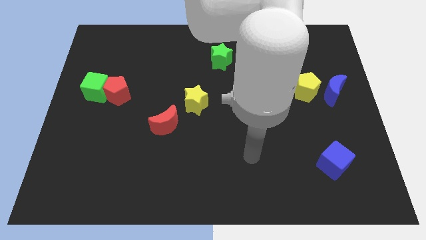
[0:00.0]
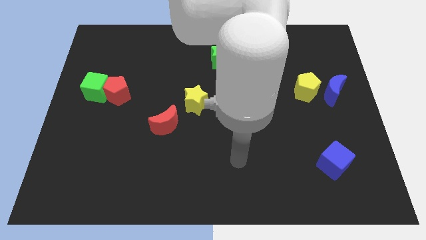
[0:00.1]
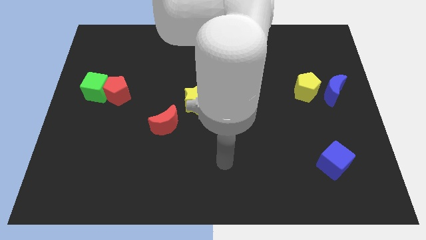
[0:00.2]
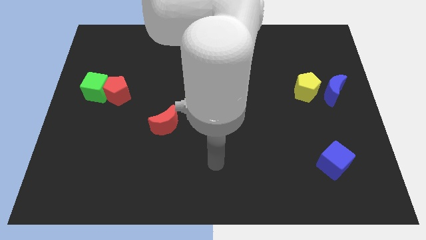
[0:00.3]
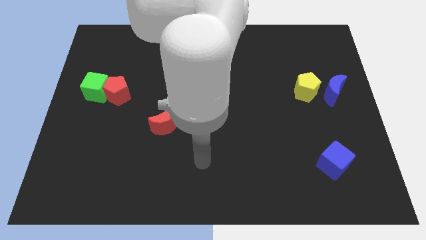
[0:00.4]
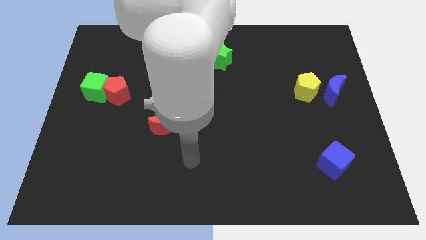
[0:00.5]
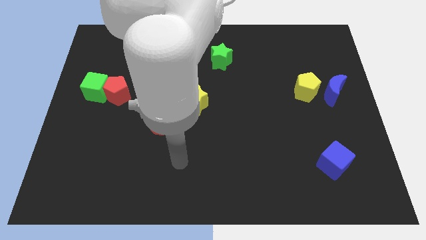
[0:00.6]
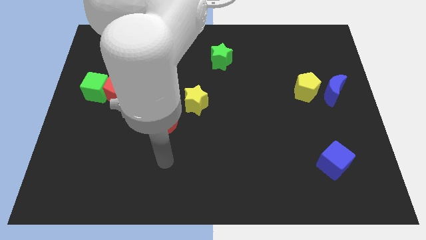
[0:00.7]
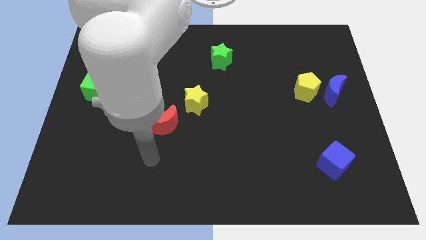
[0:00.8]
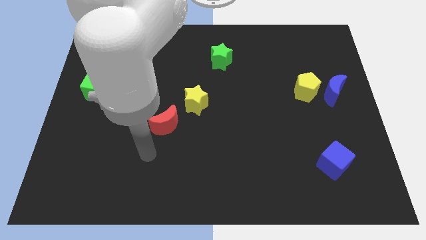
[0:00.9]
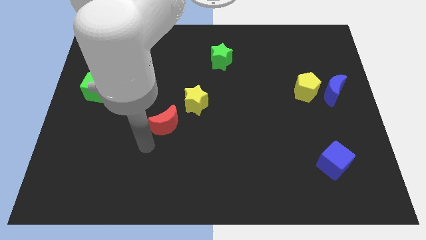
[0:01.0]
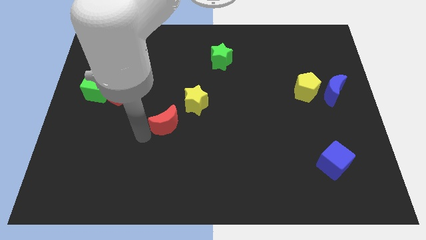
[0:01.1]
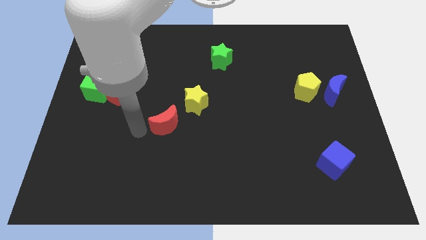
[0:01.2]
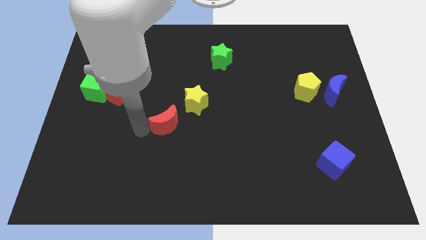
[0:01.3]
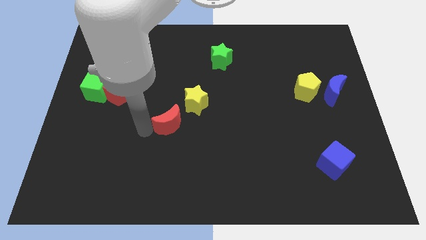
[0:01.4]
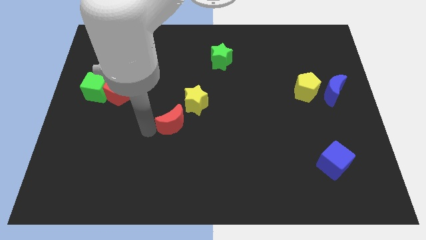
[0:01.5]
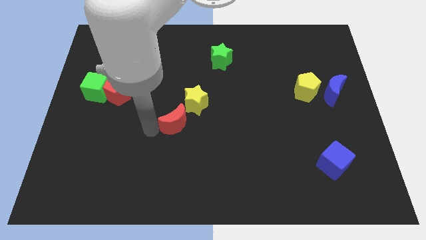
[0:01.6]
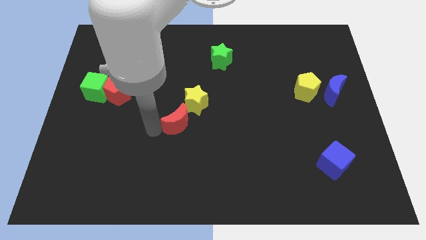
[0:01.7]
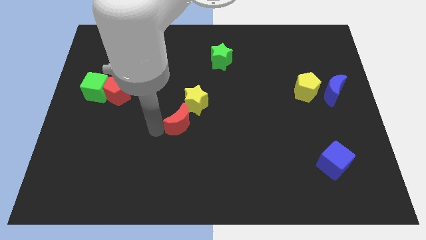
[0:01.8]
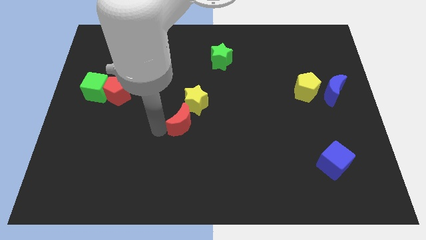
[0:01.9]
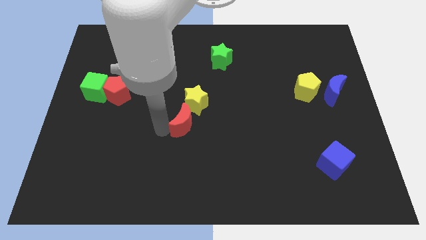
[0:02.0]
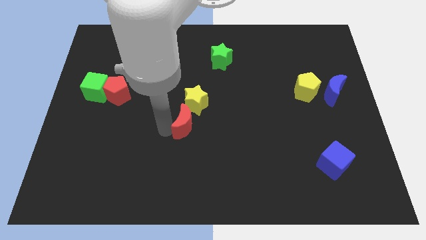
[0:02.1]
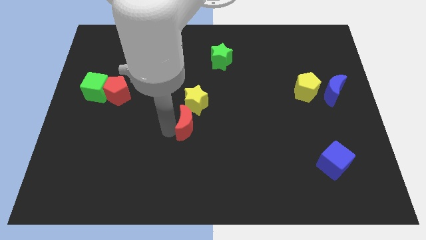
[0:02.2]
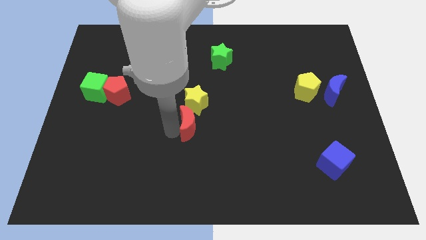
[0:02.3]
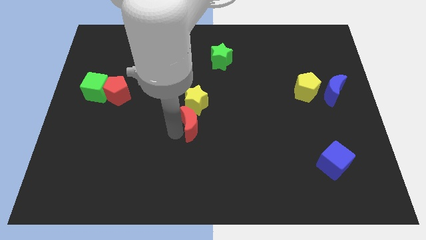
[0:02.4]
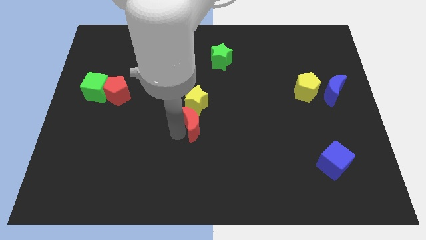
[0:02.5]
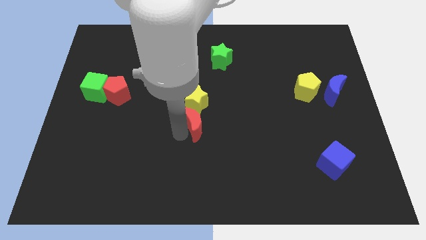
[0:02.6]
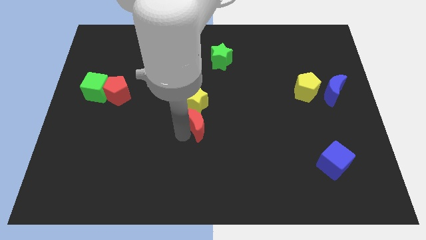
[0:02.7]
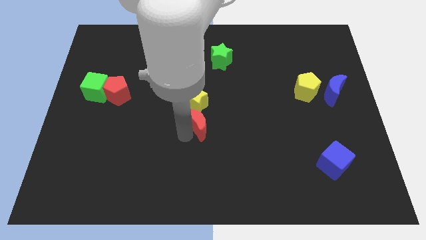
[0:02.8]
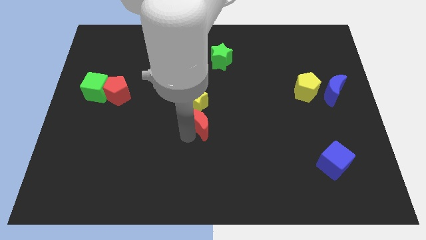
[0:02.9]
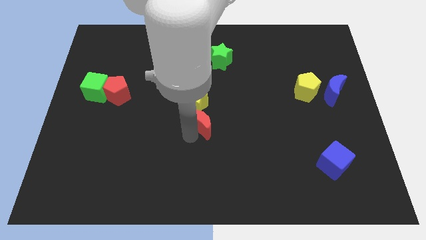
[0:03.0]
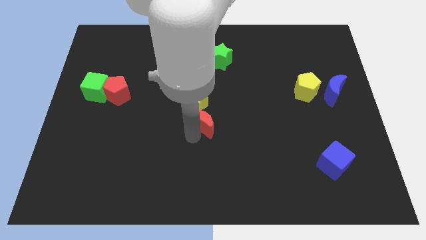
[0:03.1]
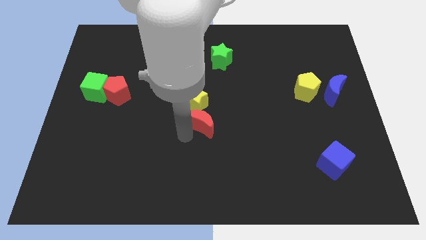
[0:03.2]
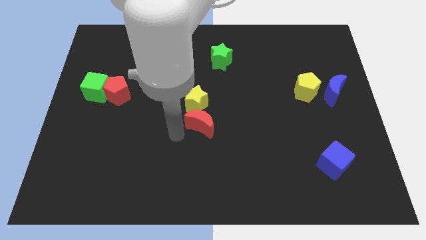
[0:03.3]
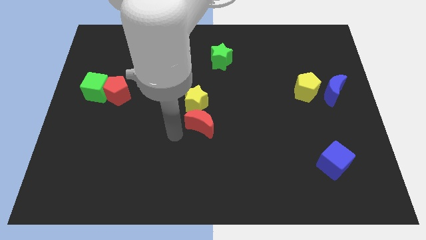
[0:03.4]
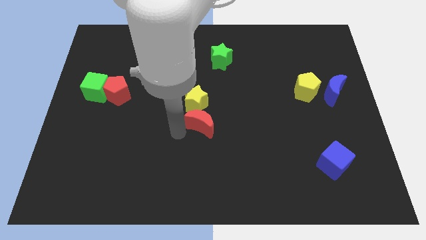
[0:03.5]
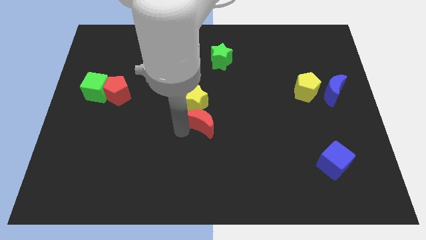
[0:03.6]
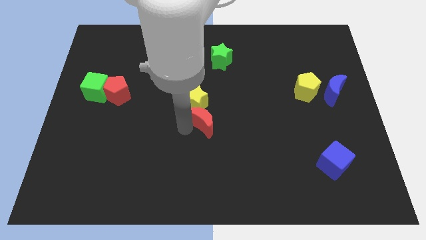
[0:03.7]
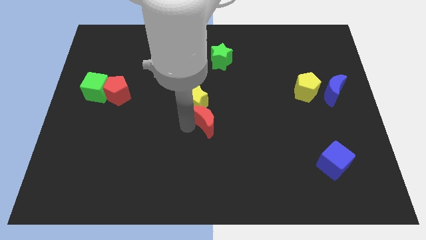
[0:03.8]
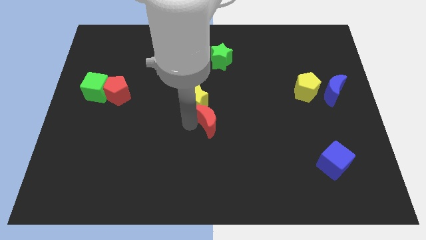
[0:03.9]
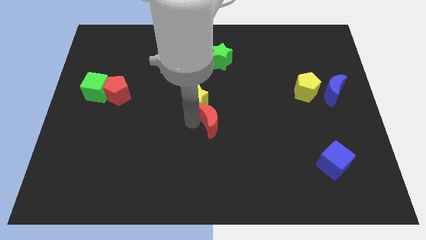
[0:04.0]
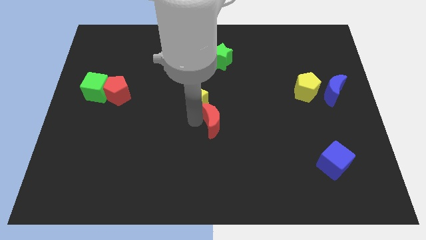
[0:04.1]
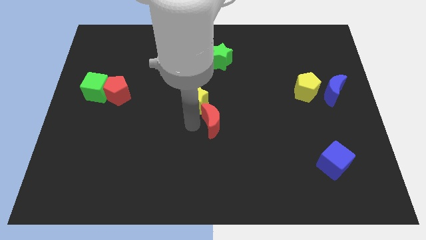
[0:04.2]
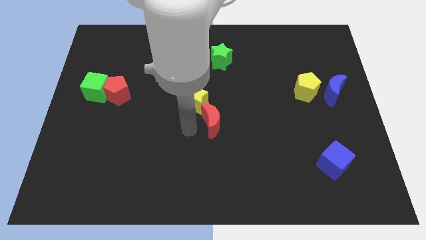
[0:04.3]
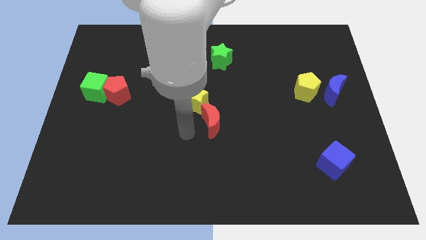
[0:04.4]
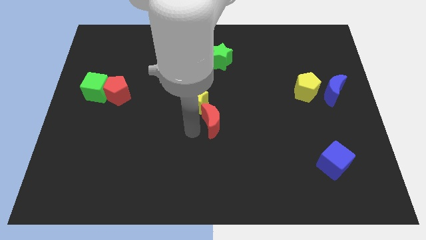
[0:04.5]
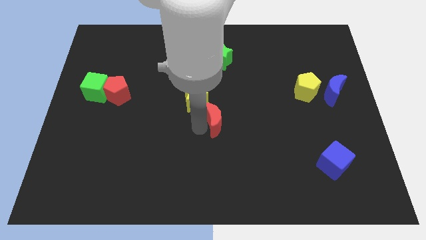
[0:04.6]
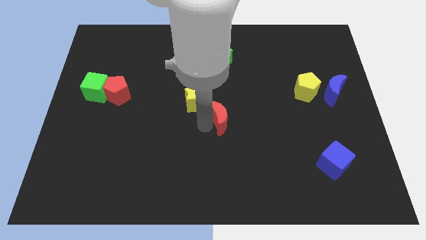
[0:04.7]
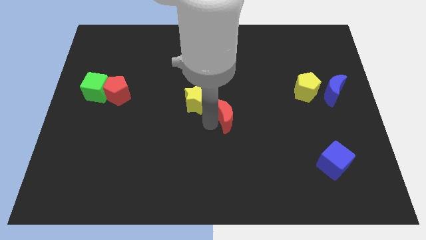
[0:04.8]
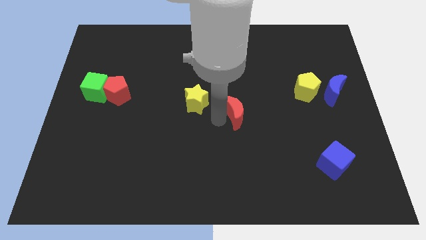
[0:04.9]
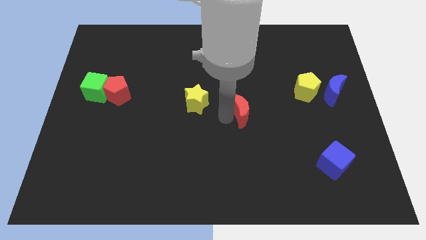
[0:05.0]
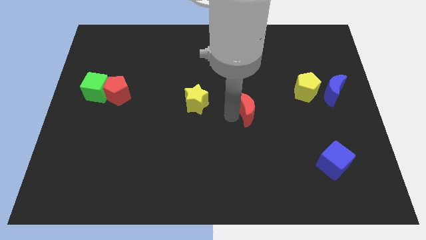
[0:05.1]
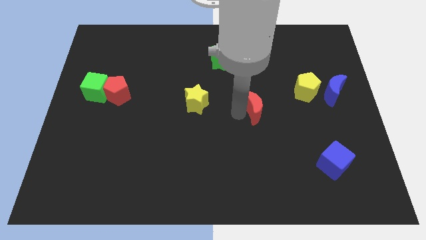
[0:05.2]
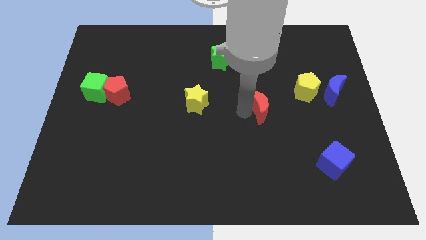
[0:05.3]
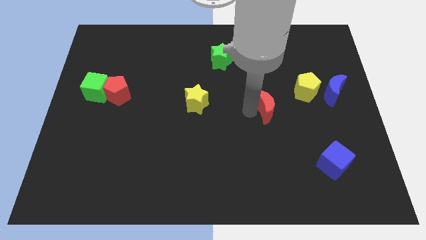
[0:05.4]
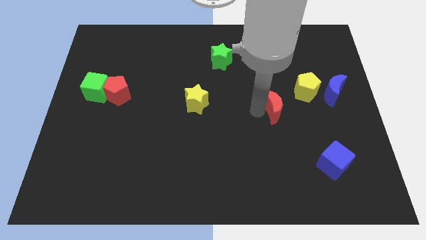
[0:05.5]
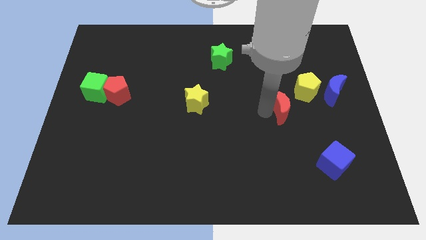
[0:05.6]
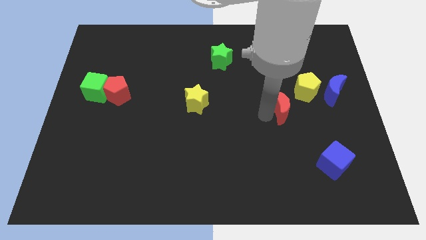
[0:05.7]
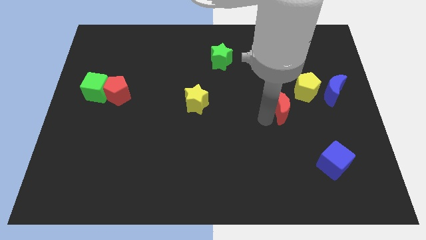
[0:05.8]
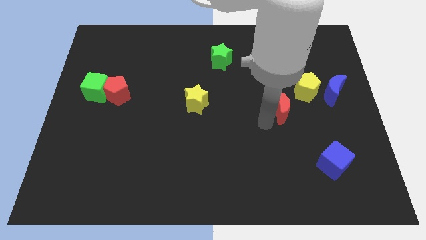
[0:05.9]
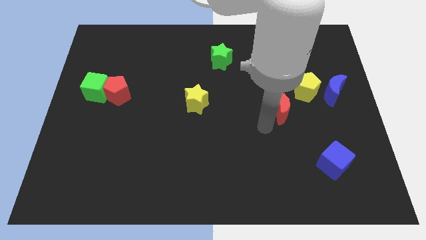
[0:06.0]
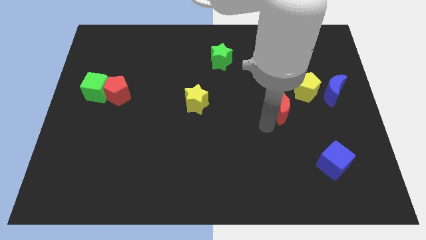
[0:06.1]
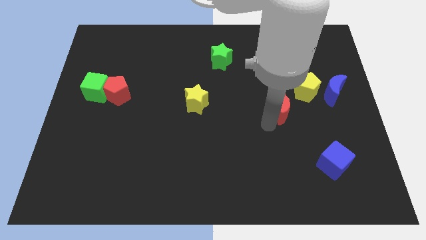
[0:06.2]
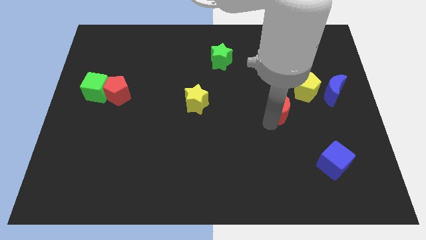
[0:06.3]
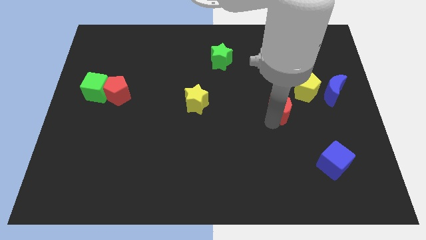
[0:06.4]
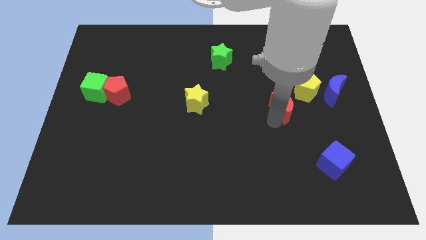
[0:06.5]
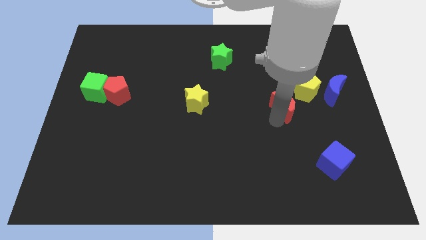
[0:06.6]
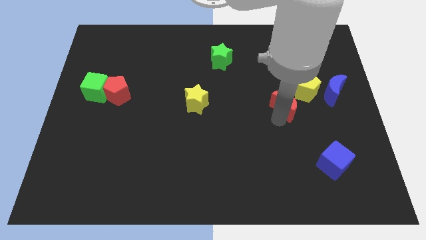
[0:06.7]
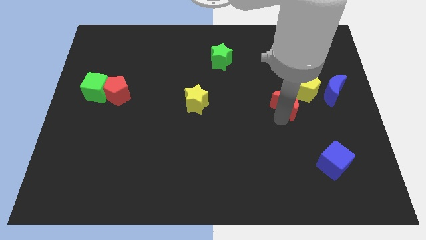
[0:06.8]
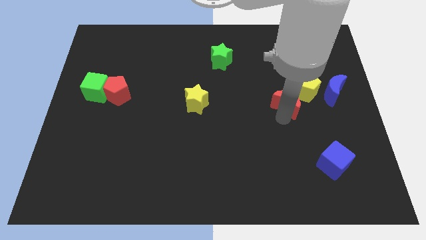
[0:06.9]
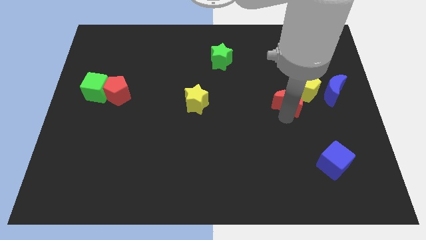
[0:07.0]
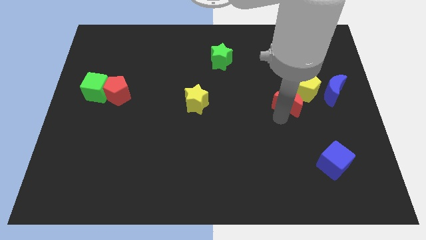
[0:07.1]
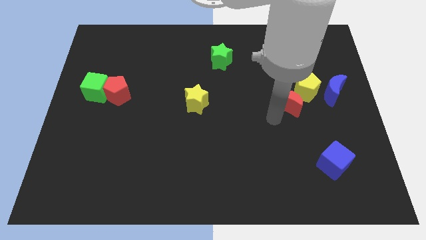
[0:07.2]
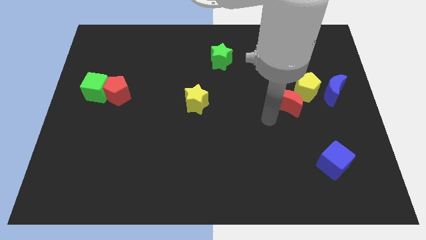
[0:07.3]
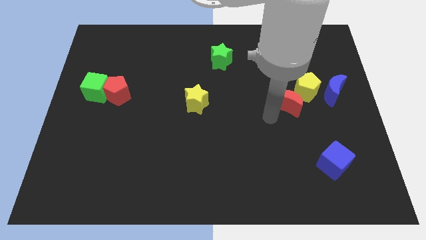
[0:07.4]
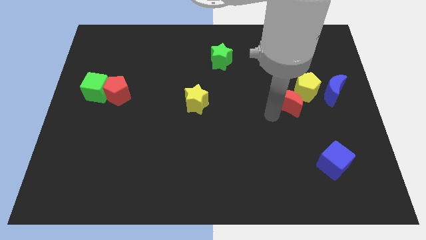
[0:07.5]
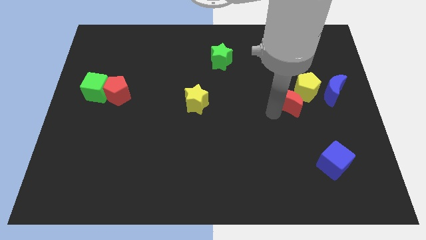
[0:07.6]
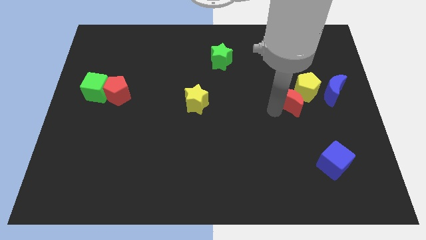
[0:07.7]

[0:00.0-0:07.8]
move the red moon close to the yellow pentagon
